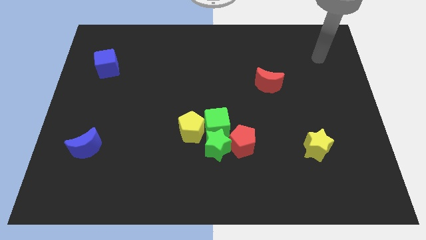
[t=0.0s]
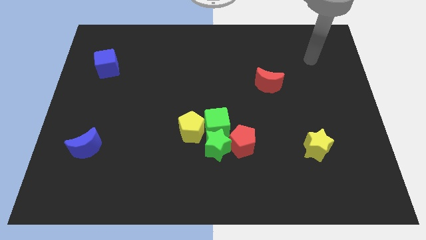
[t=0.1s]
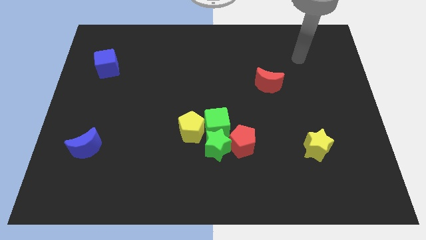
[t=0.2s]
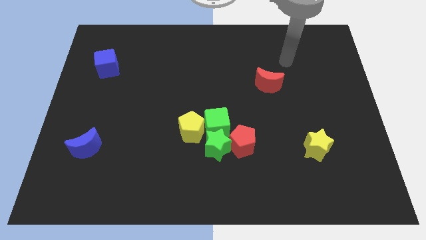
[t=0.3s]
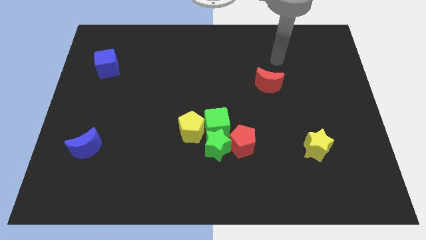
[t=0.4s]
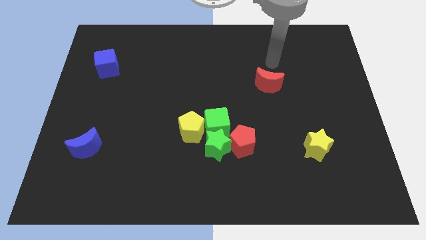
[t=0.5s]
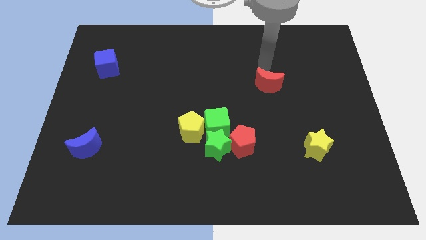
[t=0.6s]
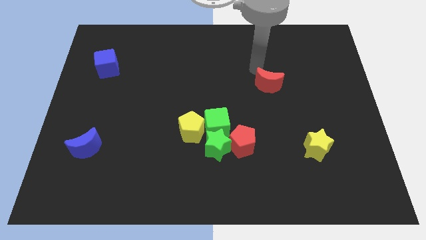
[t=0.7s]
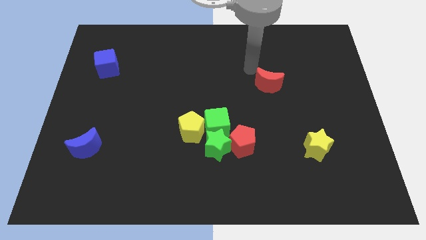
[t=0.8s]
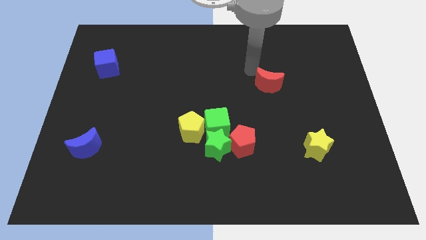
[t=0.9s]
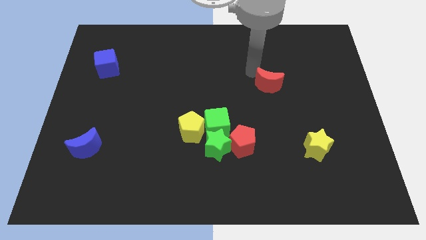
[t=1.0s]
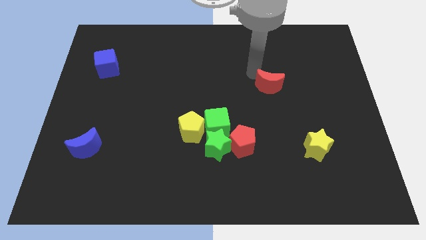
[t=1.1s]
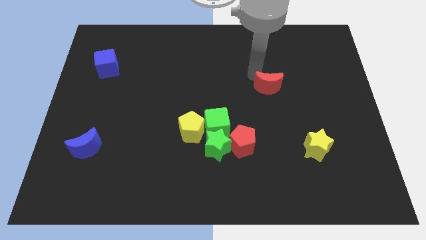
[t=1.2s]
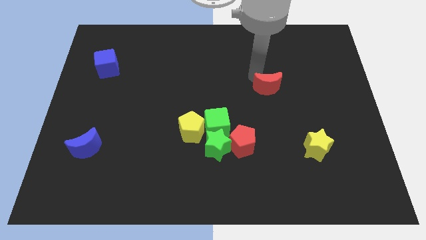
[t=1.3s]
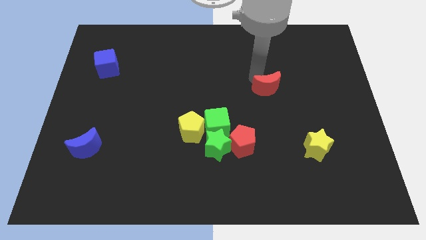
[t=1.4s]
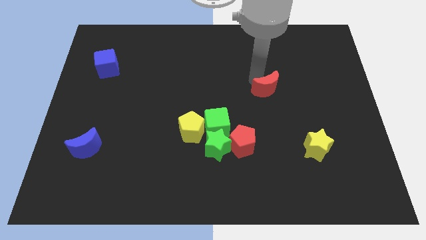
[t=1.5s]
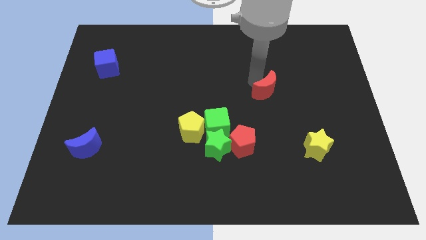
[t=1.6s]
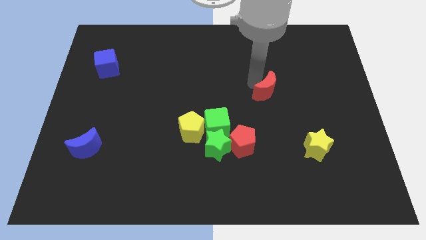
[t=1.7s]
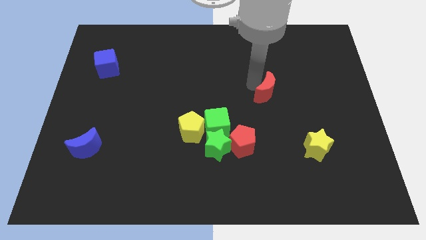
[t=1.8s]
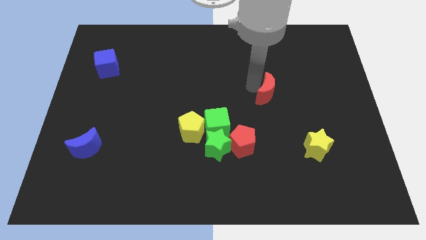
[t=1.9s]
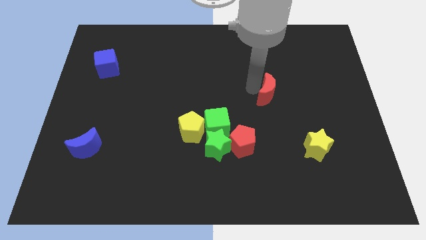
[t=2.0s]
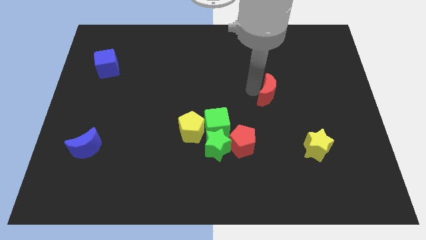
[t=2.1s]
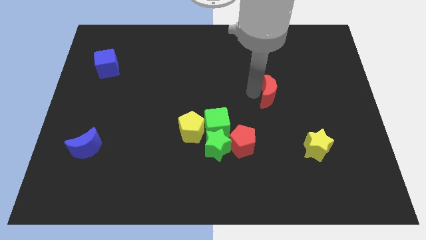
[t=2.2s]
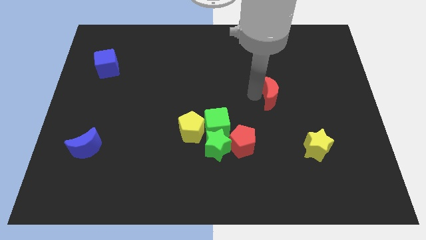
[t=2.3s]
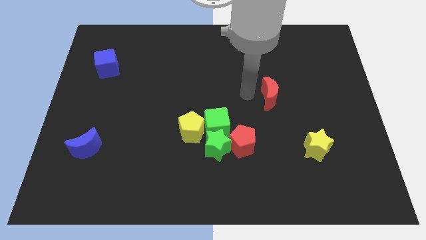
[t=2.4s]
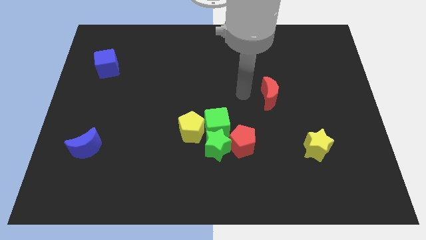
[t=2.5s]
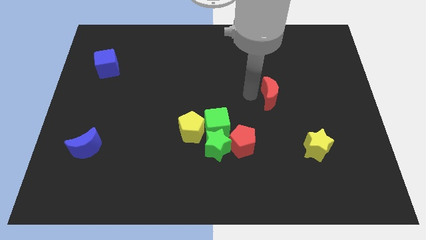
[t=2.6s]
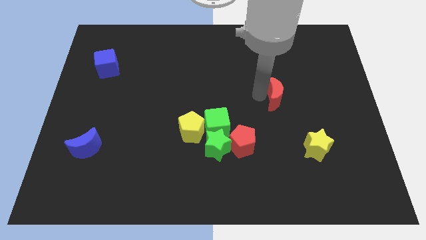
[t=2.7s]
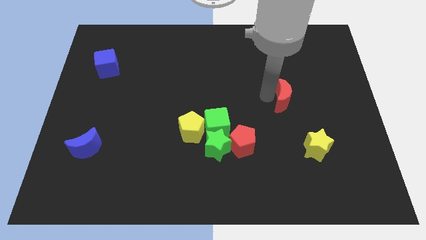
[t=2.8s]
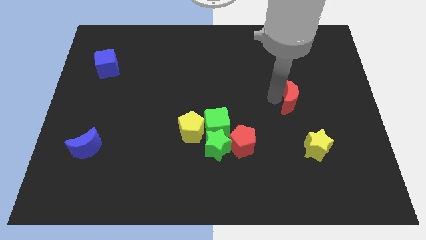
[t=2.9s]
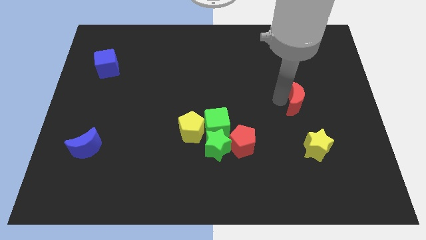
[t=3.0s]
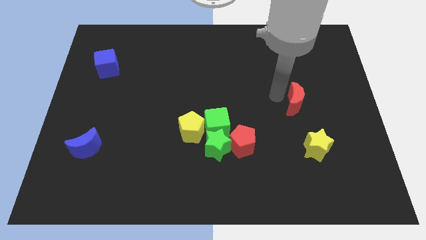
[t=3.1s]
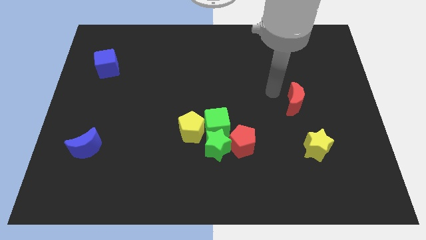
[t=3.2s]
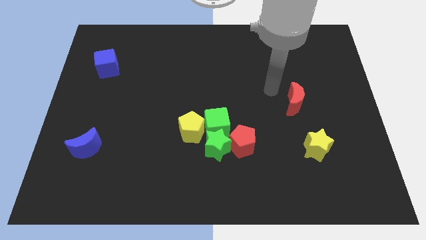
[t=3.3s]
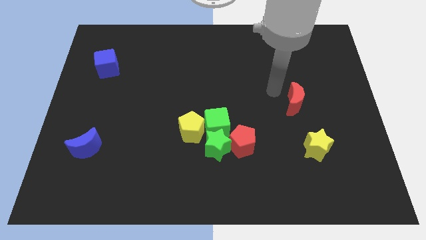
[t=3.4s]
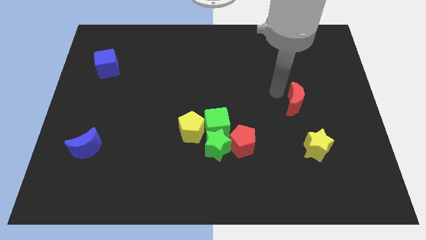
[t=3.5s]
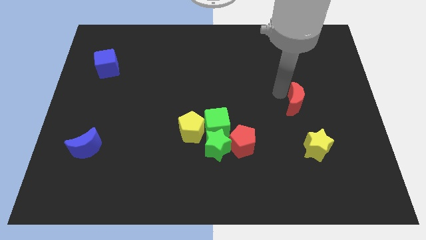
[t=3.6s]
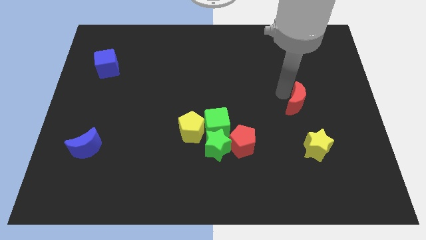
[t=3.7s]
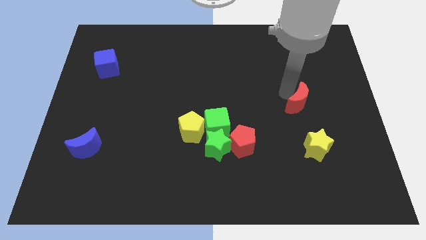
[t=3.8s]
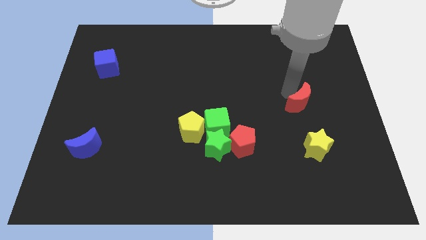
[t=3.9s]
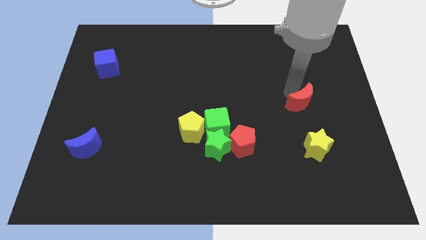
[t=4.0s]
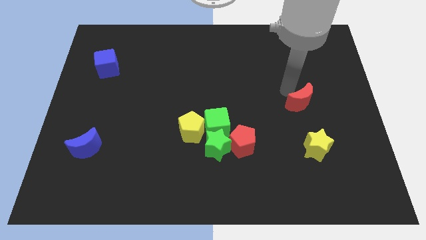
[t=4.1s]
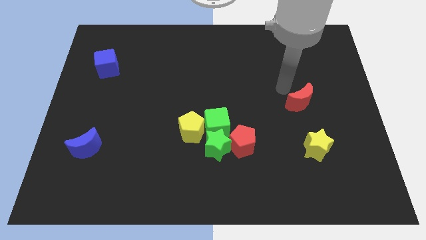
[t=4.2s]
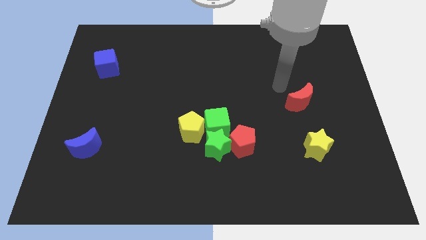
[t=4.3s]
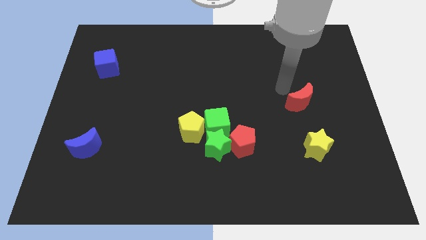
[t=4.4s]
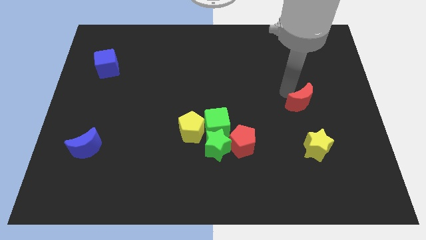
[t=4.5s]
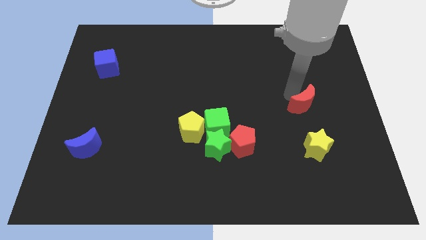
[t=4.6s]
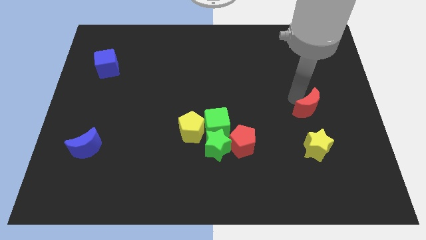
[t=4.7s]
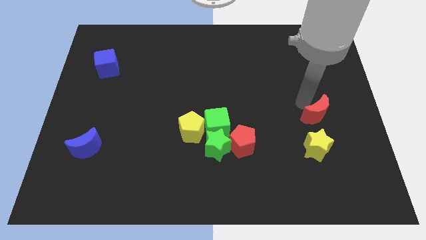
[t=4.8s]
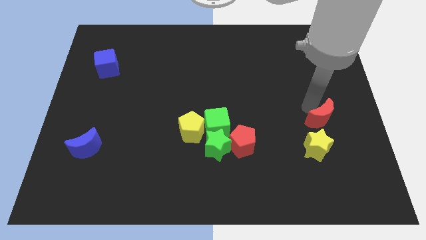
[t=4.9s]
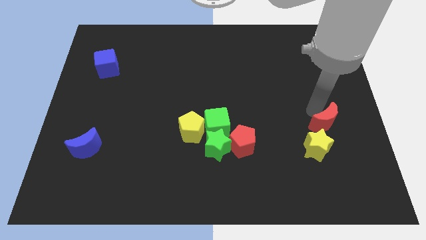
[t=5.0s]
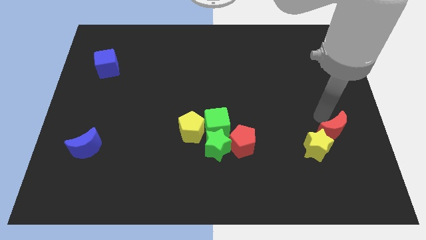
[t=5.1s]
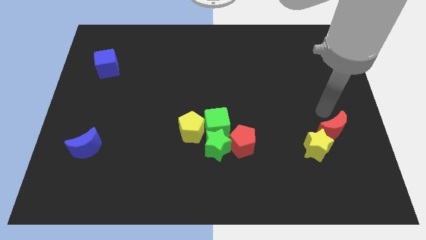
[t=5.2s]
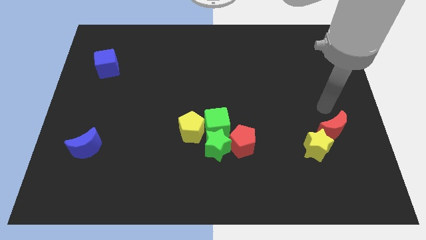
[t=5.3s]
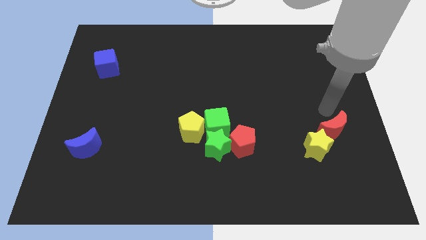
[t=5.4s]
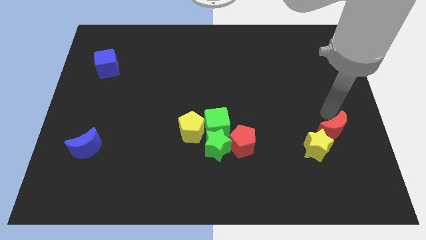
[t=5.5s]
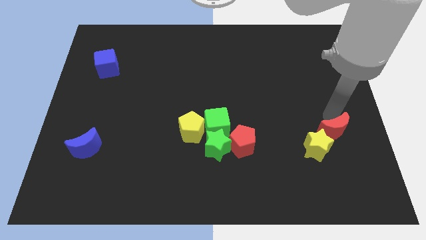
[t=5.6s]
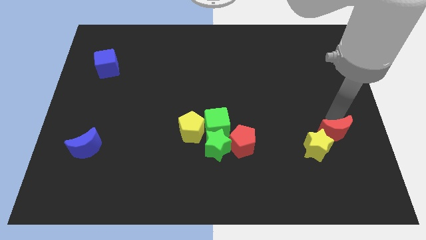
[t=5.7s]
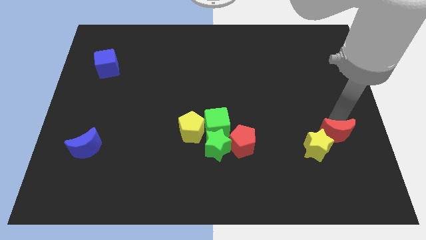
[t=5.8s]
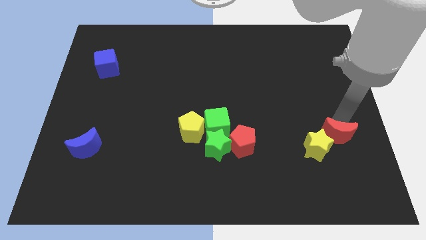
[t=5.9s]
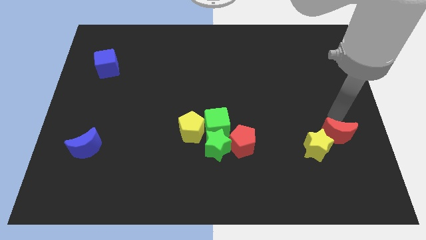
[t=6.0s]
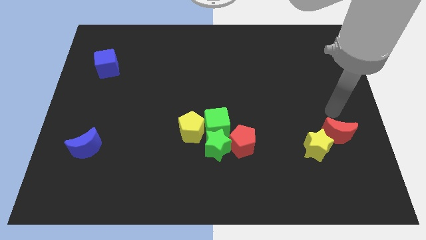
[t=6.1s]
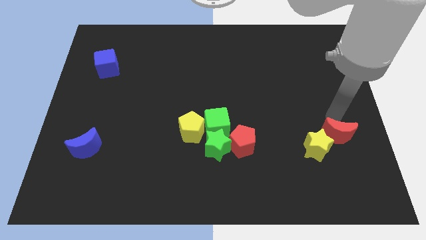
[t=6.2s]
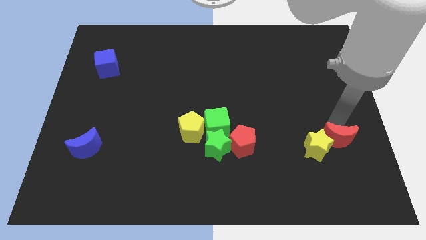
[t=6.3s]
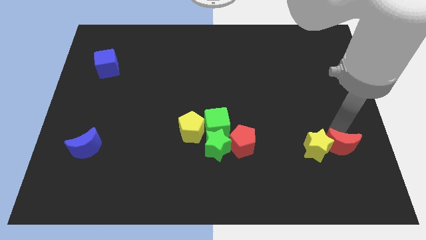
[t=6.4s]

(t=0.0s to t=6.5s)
slide the red moon to the bottom right side of the yellow star

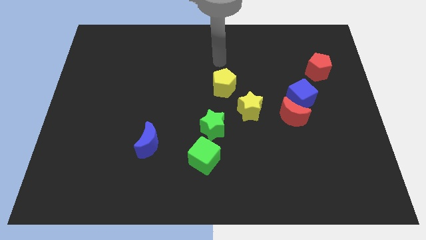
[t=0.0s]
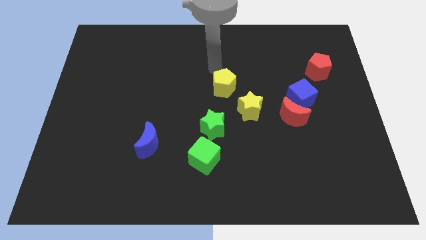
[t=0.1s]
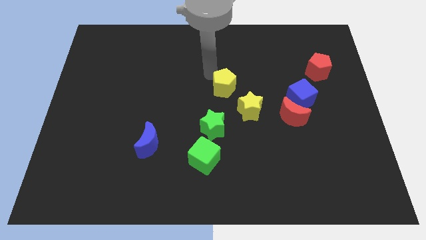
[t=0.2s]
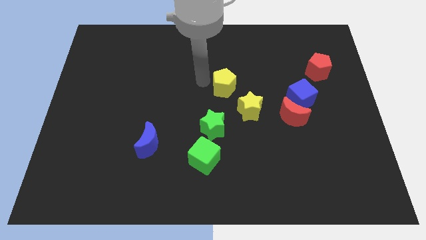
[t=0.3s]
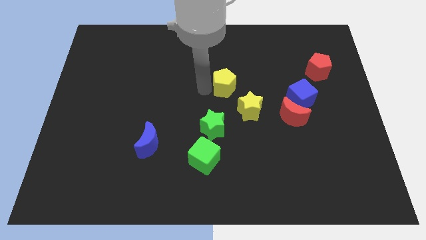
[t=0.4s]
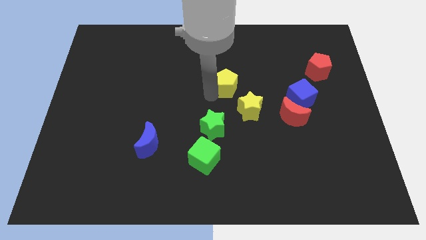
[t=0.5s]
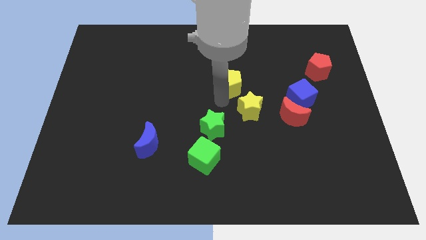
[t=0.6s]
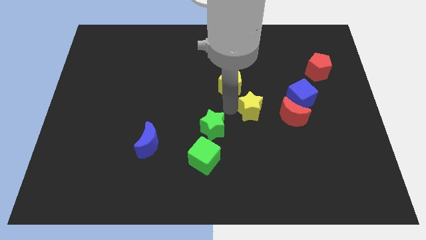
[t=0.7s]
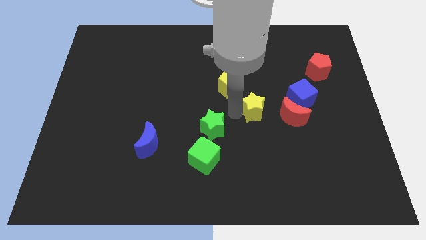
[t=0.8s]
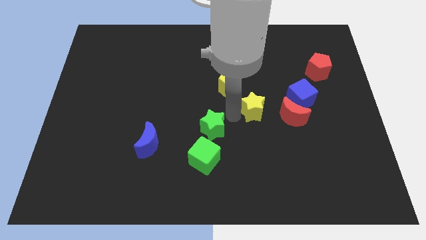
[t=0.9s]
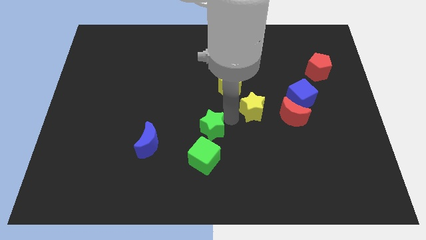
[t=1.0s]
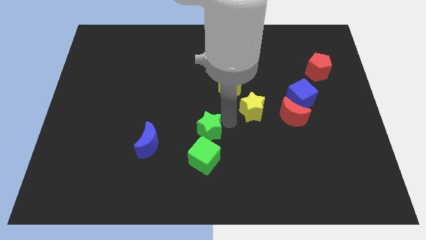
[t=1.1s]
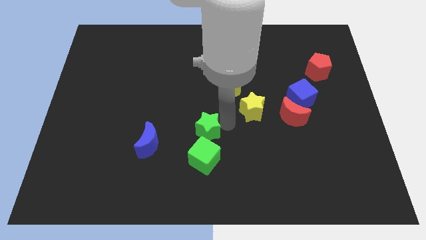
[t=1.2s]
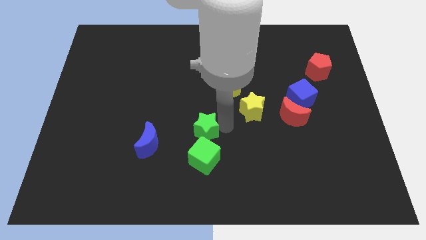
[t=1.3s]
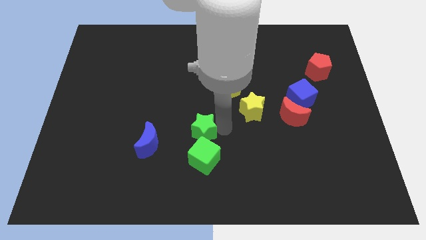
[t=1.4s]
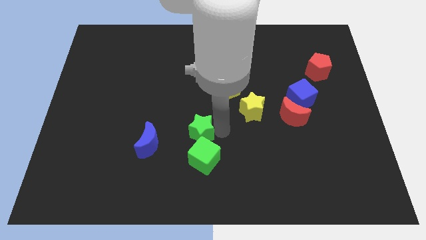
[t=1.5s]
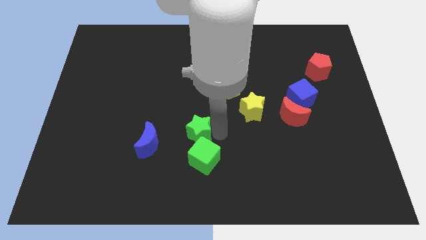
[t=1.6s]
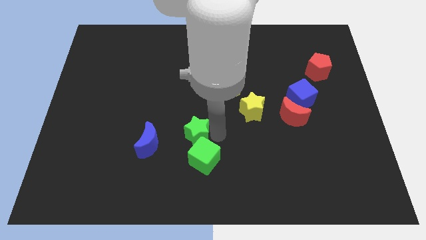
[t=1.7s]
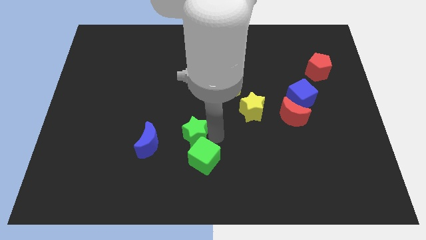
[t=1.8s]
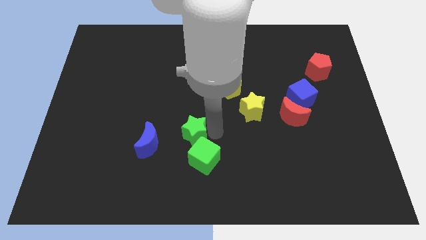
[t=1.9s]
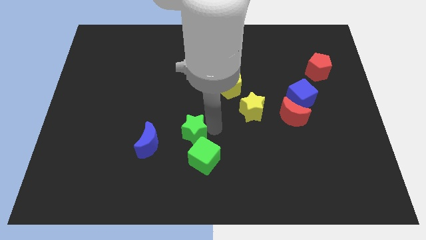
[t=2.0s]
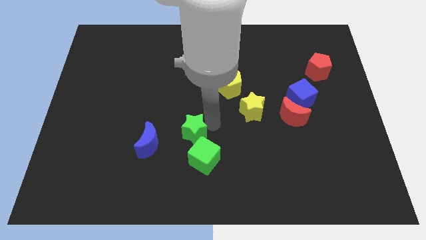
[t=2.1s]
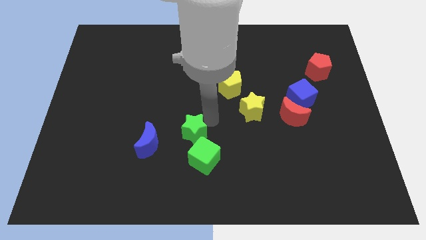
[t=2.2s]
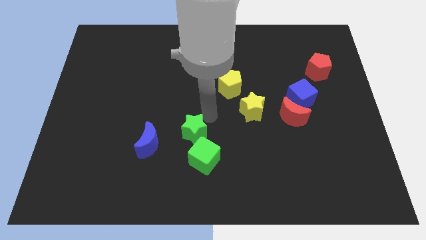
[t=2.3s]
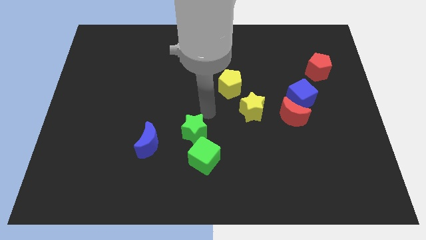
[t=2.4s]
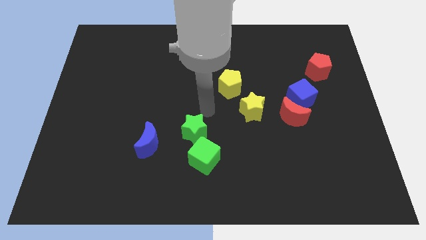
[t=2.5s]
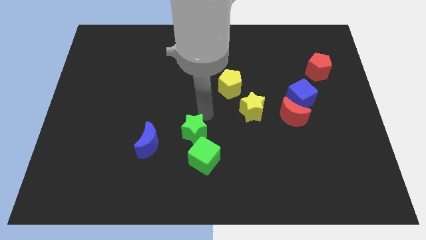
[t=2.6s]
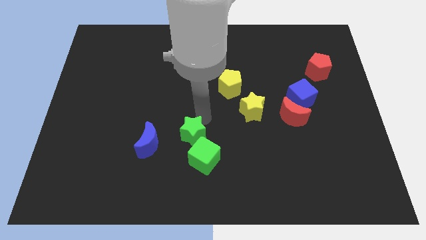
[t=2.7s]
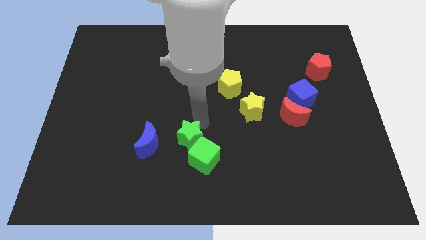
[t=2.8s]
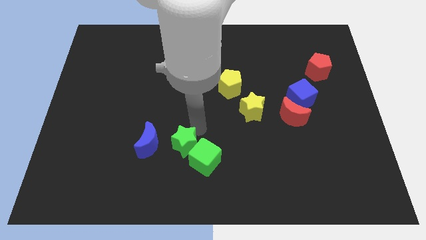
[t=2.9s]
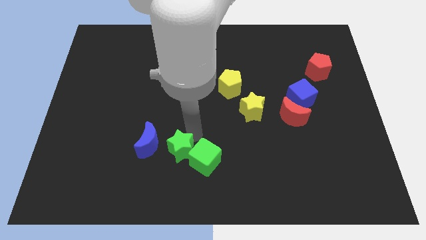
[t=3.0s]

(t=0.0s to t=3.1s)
slide the green star to the bottom right side of the blue moon
